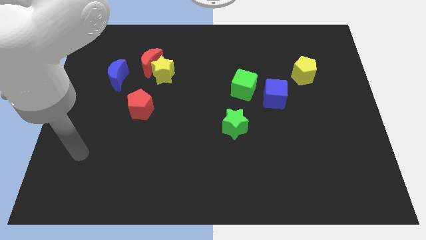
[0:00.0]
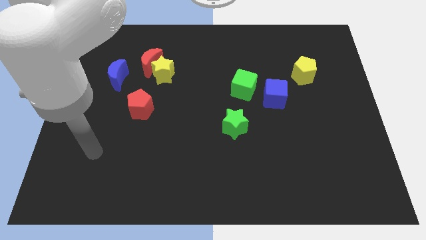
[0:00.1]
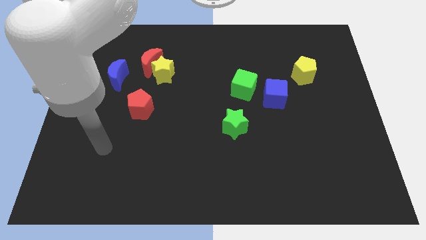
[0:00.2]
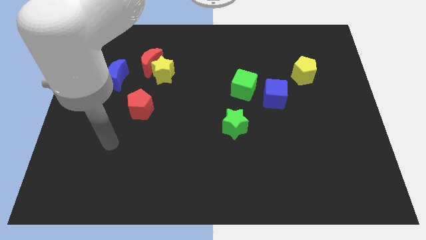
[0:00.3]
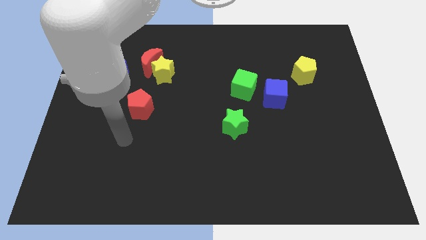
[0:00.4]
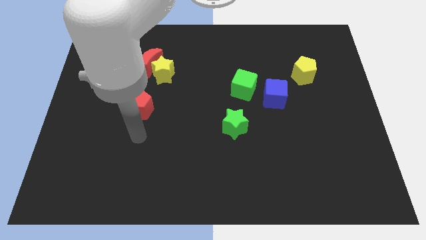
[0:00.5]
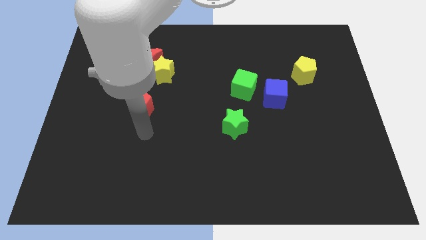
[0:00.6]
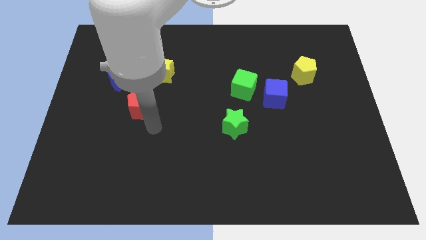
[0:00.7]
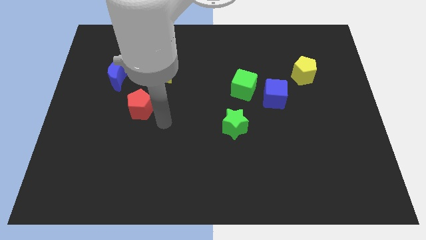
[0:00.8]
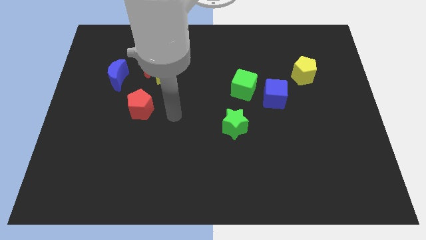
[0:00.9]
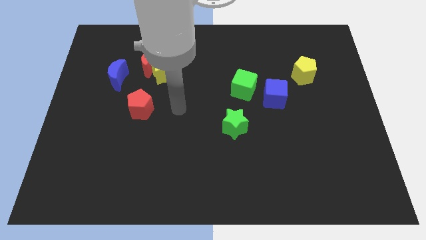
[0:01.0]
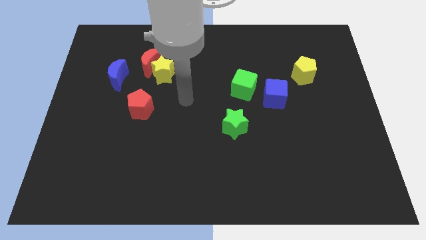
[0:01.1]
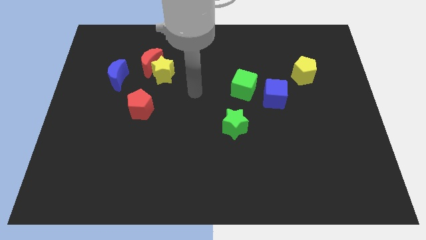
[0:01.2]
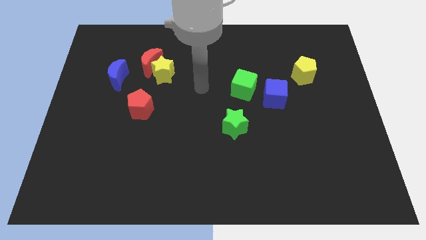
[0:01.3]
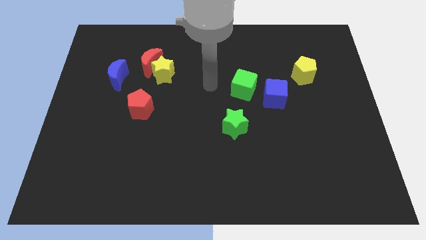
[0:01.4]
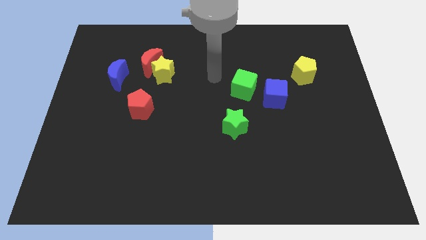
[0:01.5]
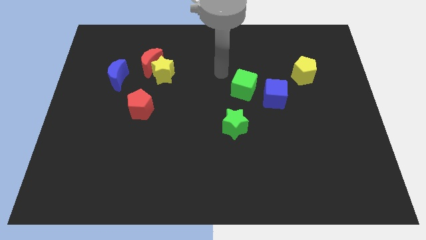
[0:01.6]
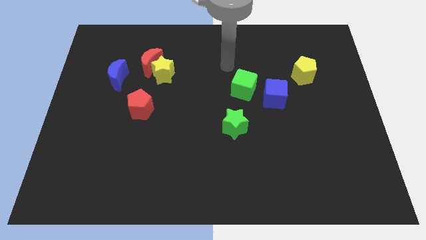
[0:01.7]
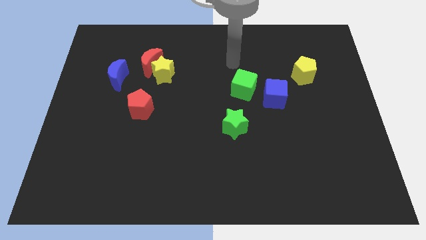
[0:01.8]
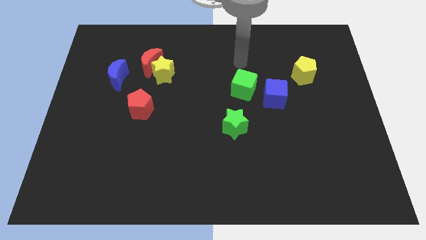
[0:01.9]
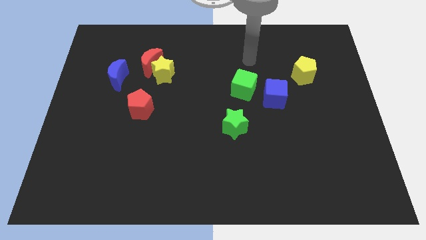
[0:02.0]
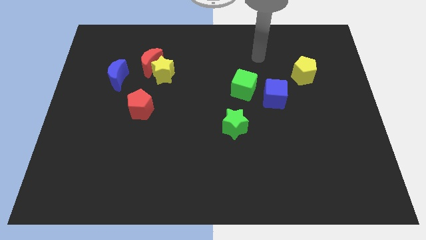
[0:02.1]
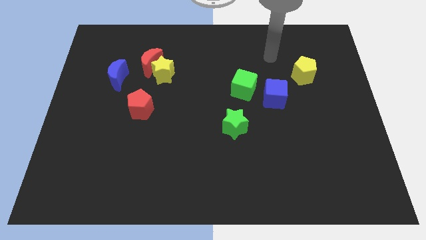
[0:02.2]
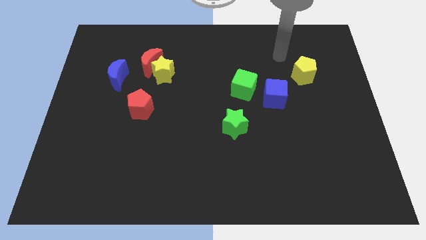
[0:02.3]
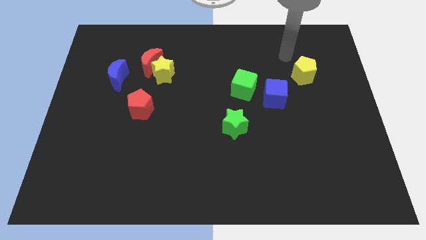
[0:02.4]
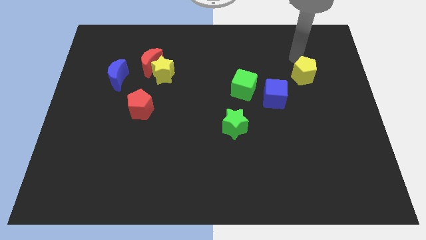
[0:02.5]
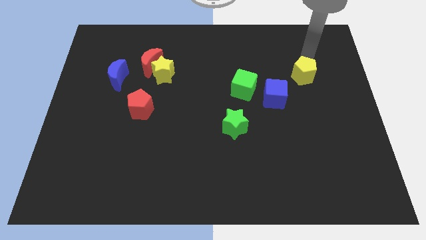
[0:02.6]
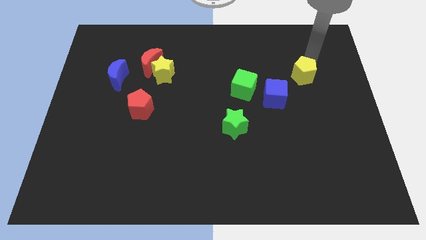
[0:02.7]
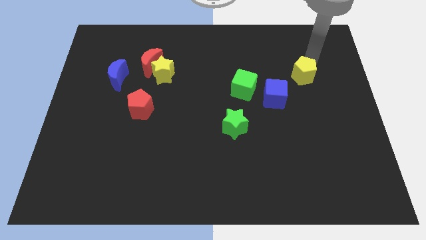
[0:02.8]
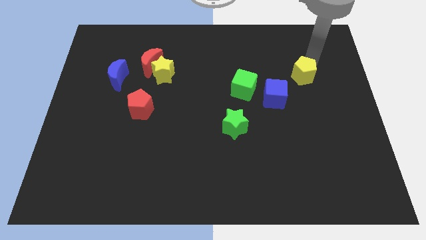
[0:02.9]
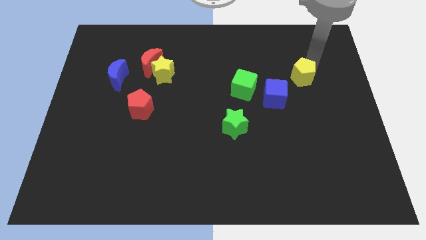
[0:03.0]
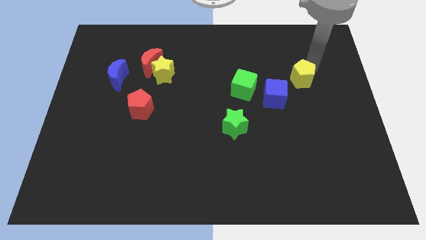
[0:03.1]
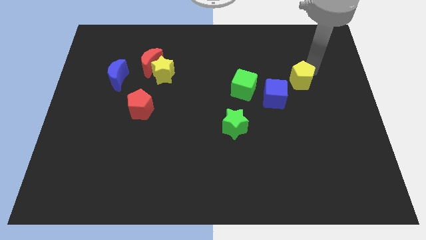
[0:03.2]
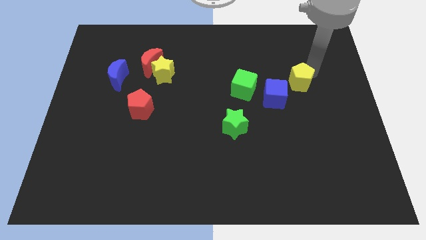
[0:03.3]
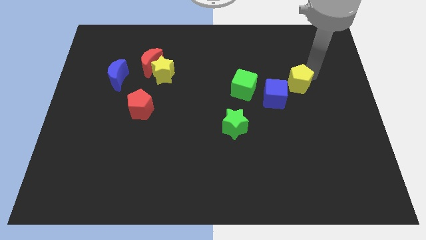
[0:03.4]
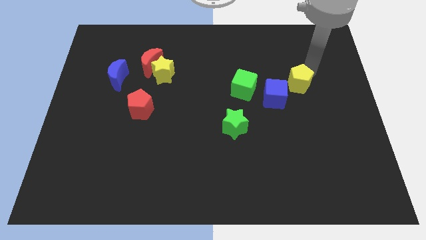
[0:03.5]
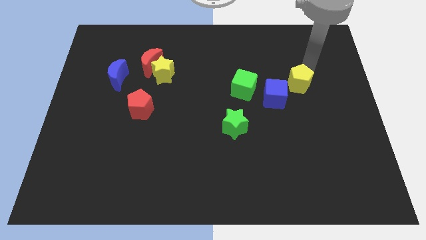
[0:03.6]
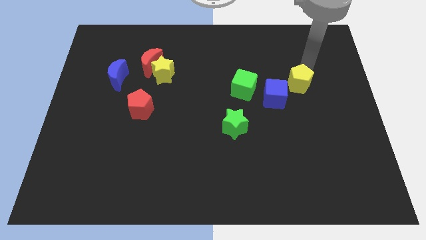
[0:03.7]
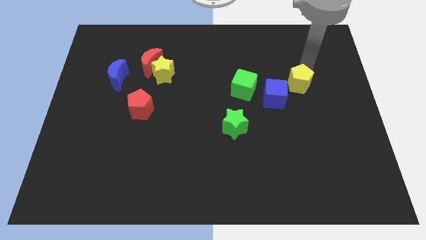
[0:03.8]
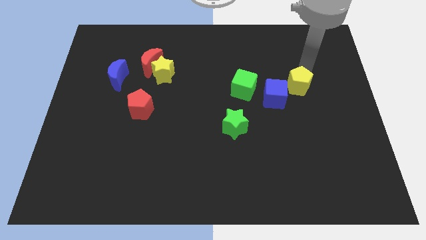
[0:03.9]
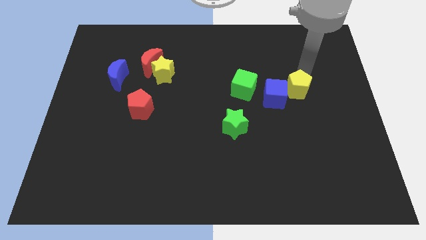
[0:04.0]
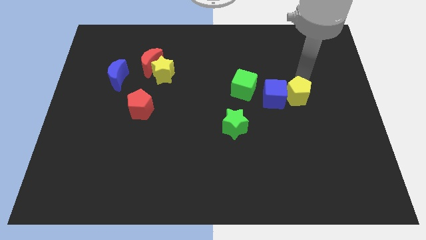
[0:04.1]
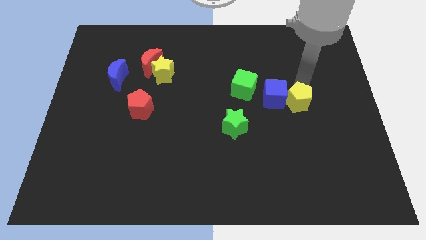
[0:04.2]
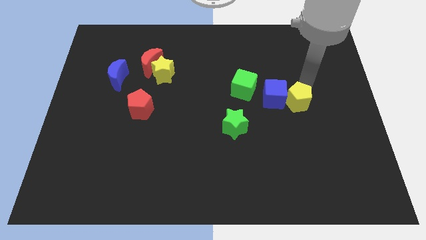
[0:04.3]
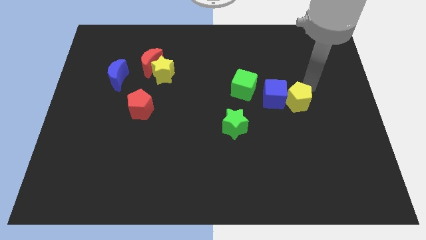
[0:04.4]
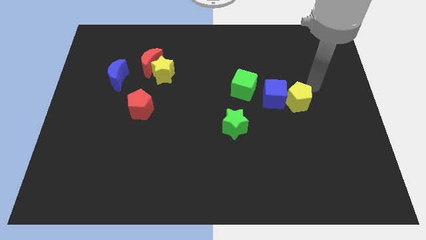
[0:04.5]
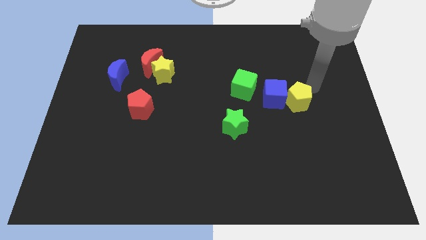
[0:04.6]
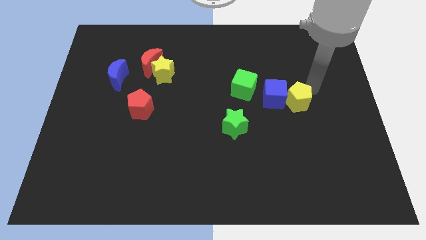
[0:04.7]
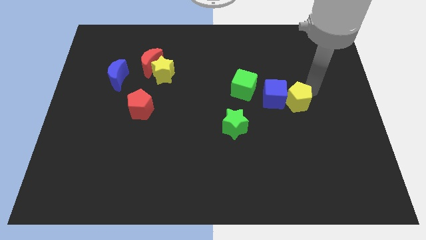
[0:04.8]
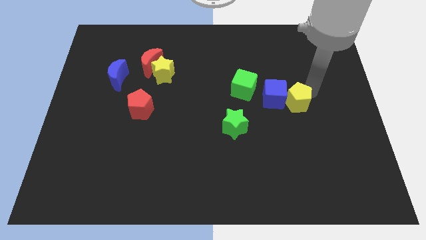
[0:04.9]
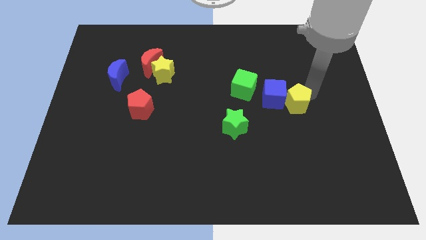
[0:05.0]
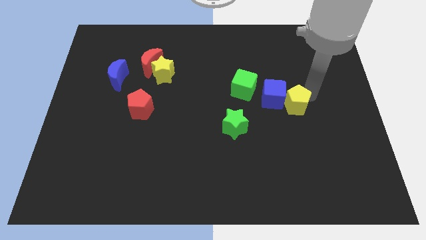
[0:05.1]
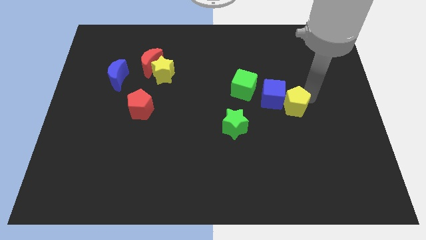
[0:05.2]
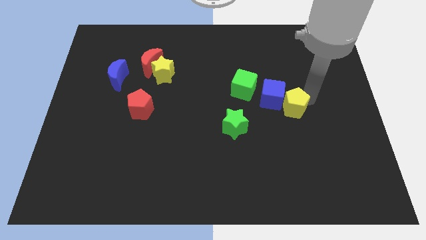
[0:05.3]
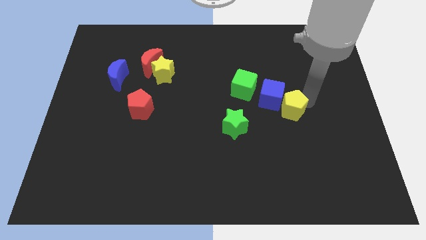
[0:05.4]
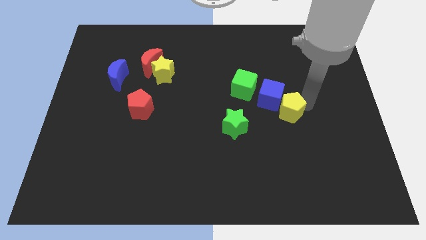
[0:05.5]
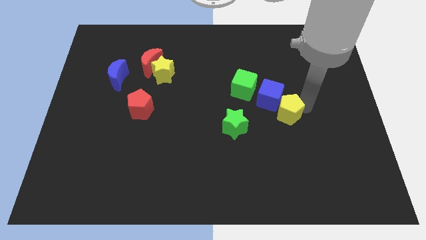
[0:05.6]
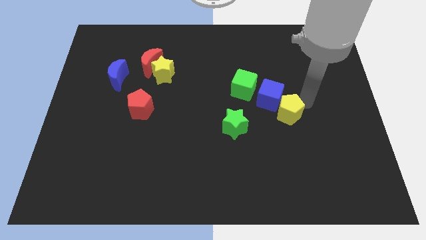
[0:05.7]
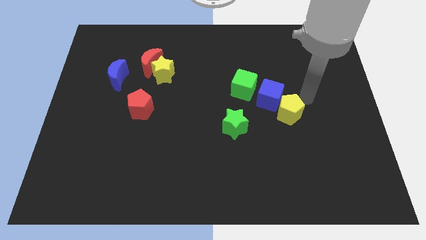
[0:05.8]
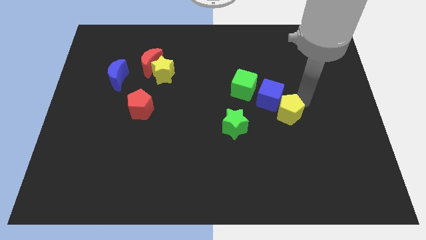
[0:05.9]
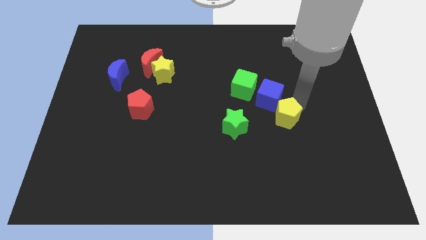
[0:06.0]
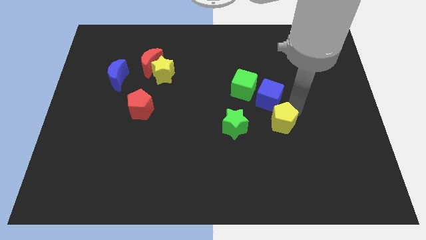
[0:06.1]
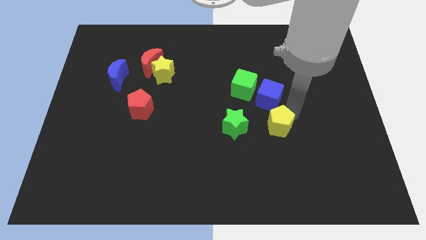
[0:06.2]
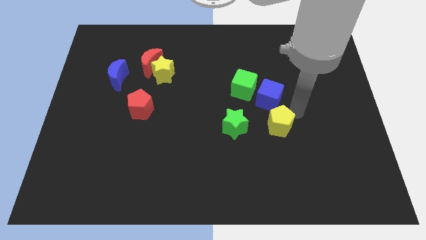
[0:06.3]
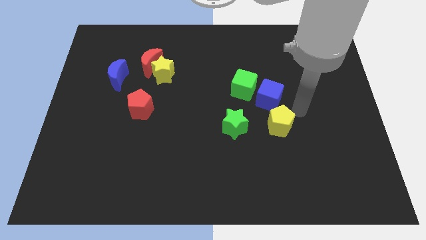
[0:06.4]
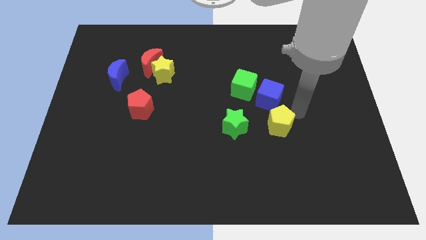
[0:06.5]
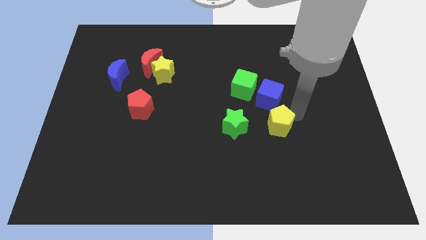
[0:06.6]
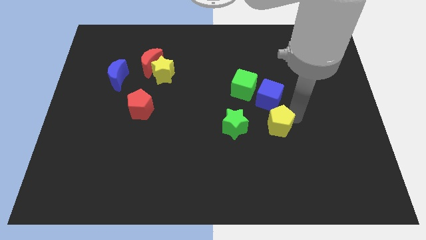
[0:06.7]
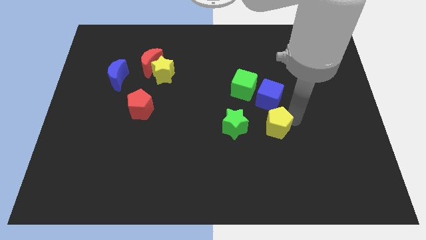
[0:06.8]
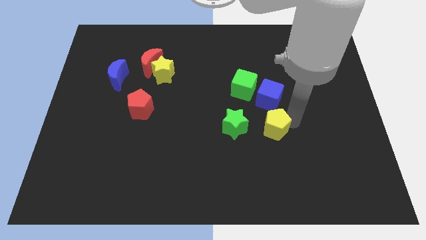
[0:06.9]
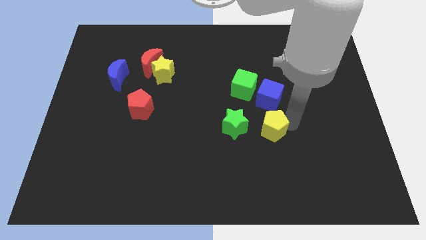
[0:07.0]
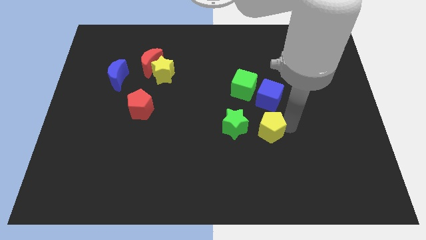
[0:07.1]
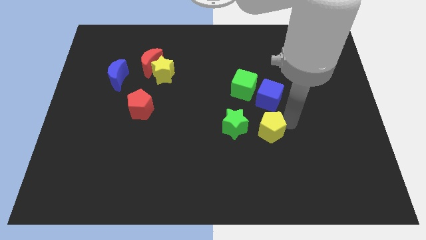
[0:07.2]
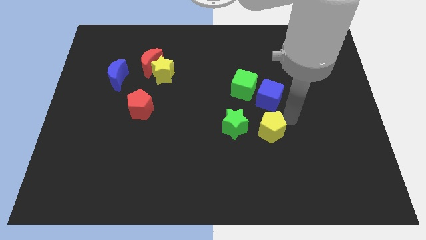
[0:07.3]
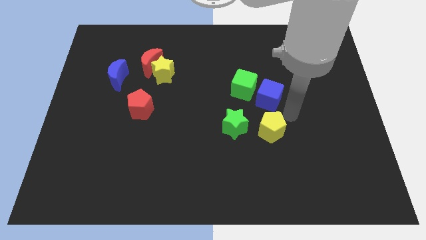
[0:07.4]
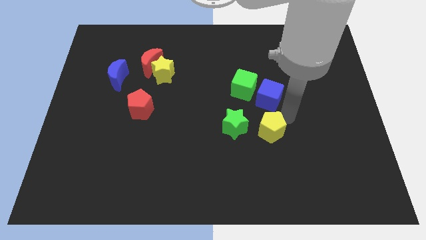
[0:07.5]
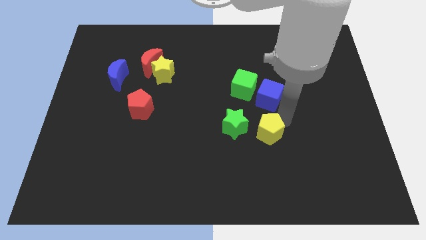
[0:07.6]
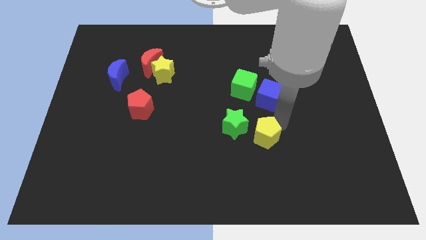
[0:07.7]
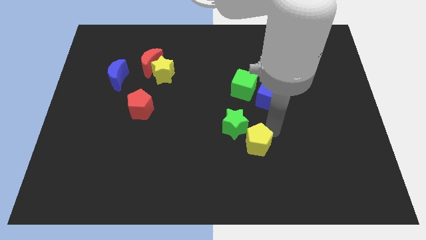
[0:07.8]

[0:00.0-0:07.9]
push the yellow pentagon to the bottom side of the green star
